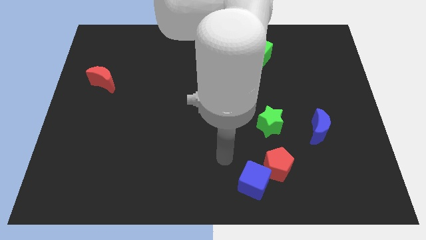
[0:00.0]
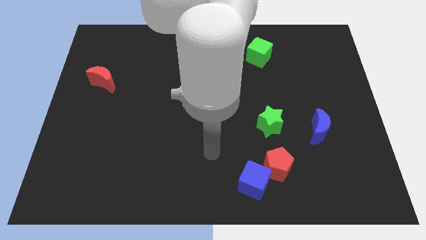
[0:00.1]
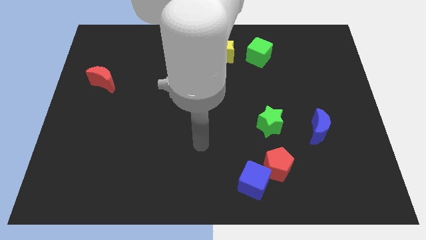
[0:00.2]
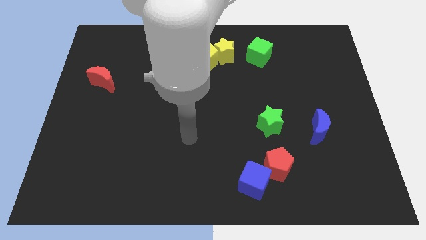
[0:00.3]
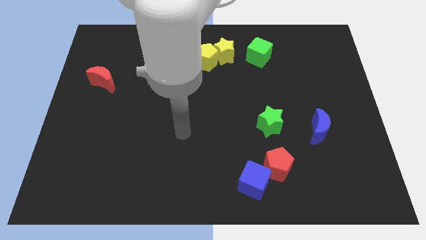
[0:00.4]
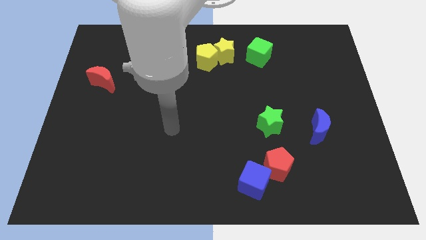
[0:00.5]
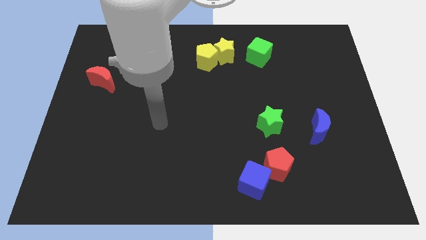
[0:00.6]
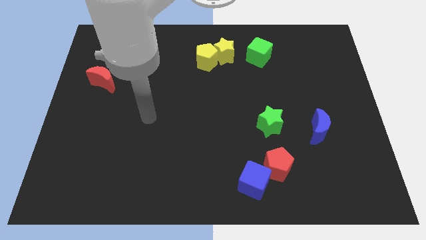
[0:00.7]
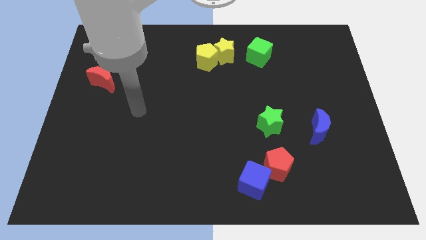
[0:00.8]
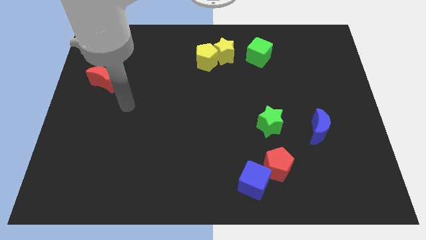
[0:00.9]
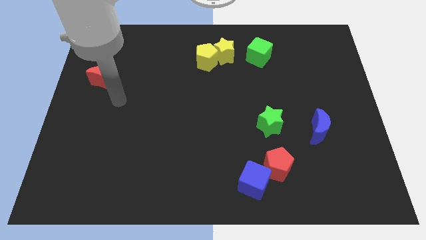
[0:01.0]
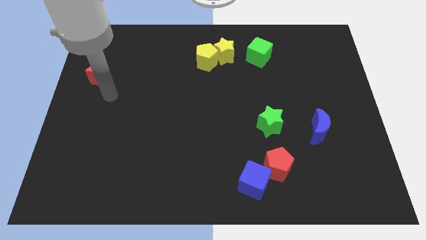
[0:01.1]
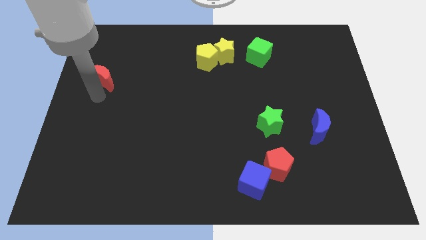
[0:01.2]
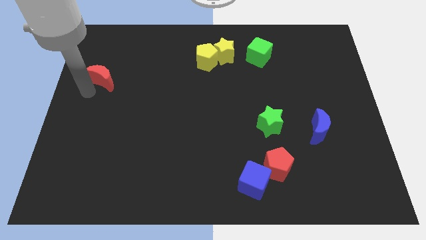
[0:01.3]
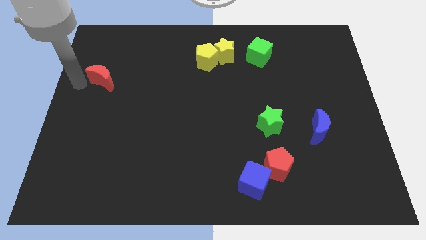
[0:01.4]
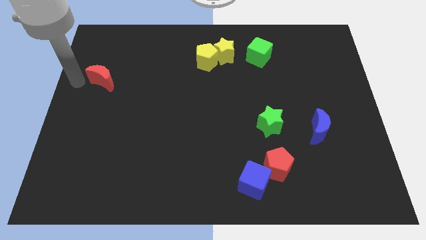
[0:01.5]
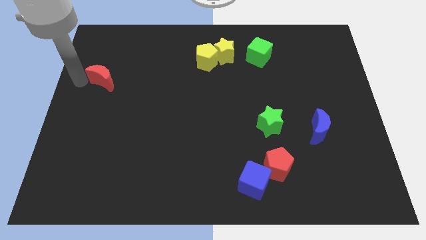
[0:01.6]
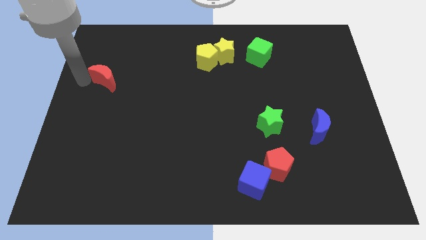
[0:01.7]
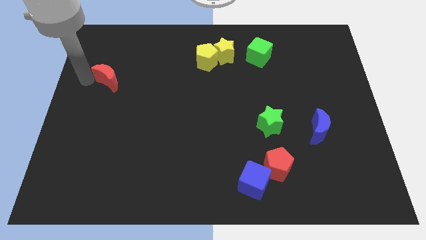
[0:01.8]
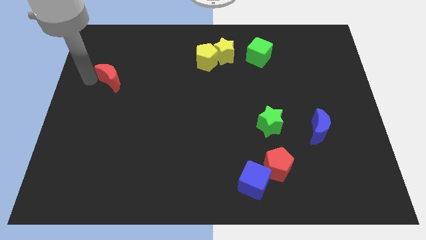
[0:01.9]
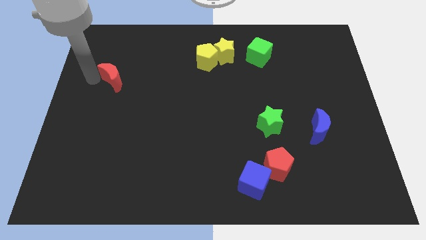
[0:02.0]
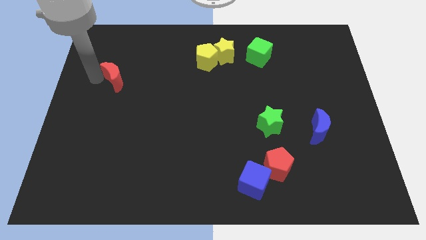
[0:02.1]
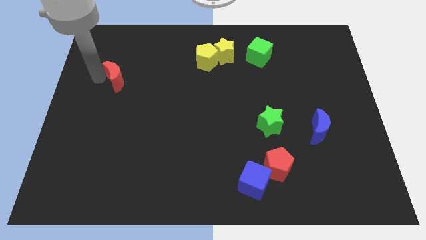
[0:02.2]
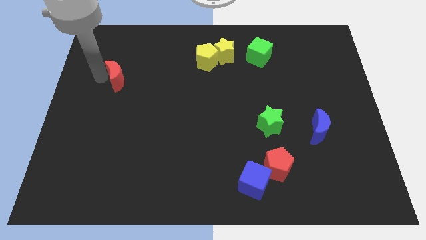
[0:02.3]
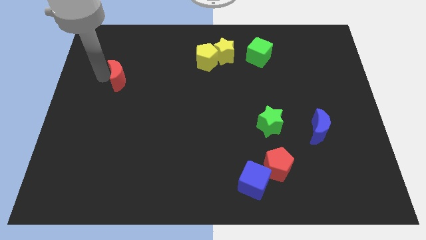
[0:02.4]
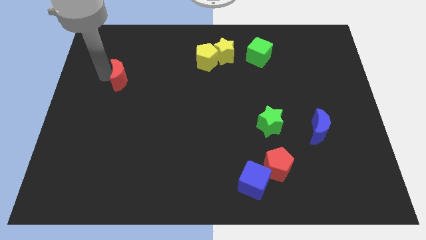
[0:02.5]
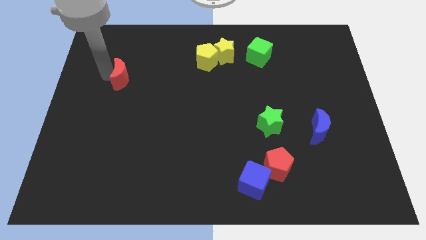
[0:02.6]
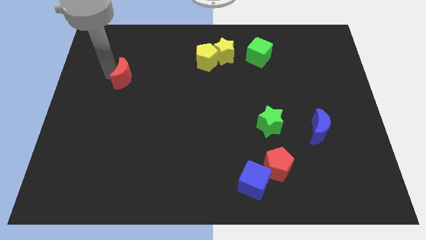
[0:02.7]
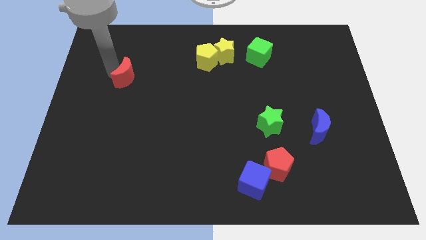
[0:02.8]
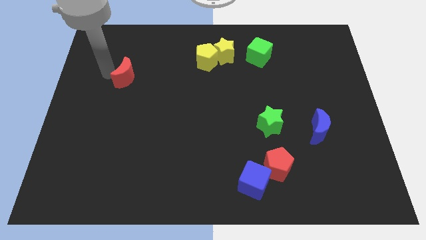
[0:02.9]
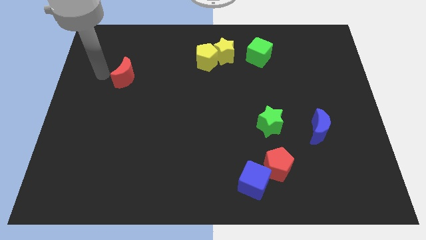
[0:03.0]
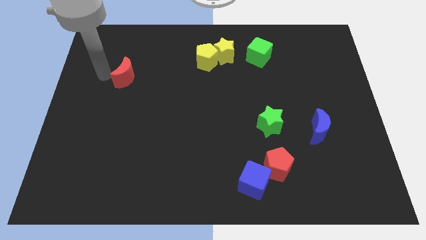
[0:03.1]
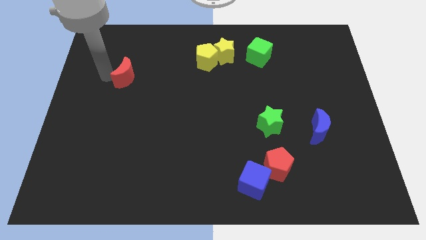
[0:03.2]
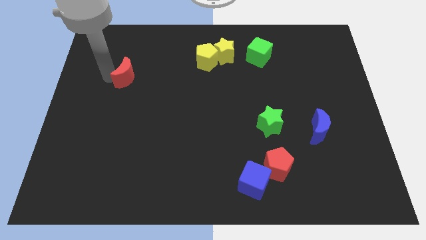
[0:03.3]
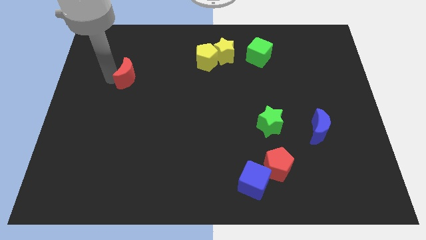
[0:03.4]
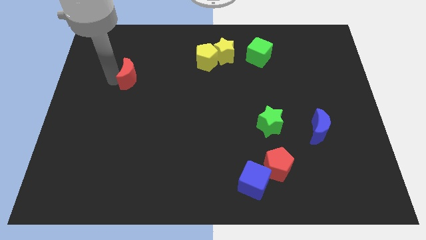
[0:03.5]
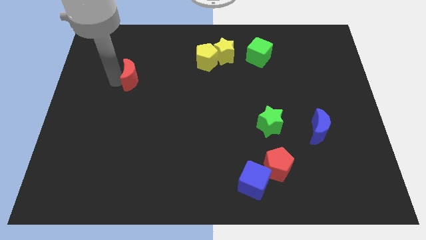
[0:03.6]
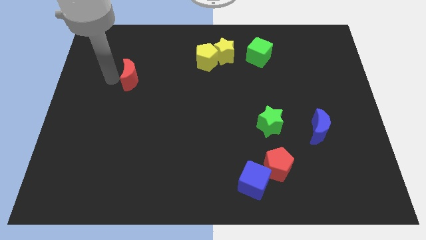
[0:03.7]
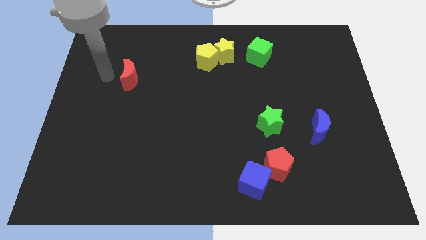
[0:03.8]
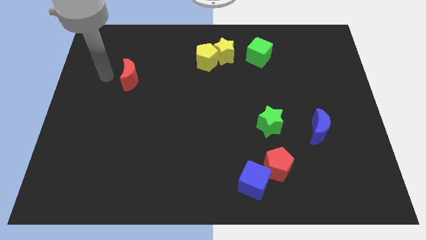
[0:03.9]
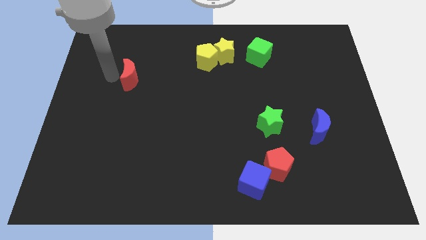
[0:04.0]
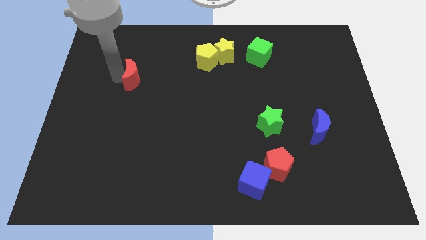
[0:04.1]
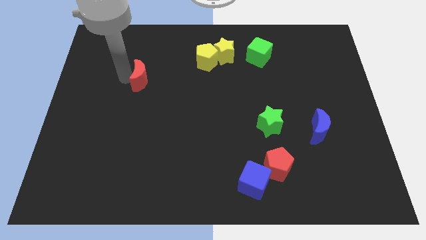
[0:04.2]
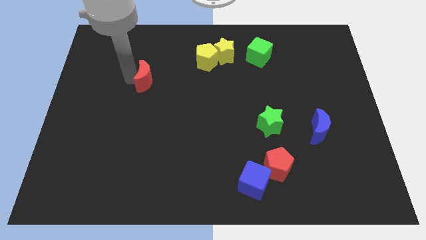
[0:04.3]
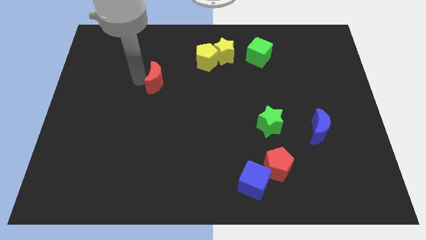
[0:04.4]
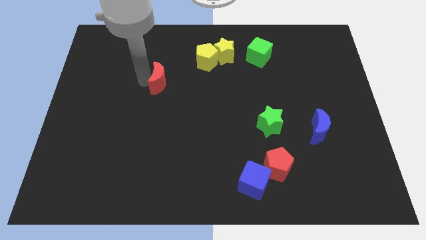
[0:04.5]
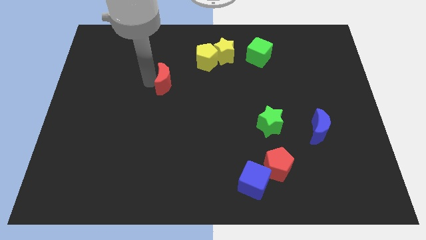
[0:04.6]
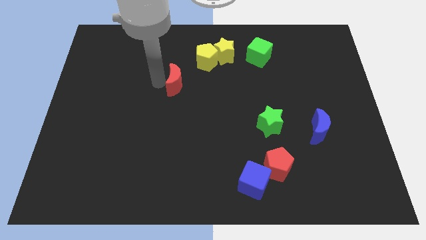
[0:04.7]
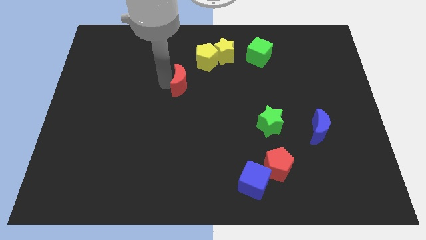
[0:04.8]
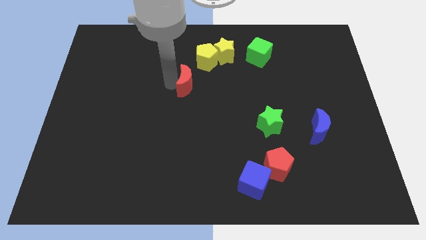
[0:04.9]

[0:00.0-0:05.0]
move the red moon right

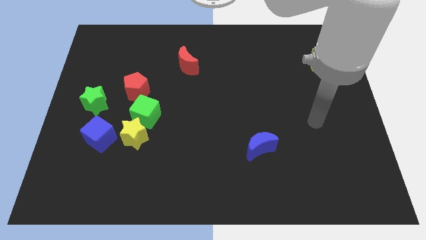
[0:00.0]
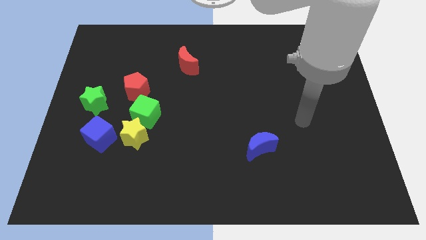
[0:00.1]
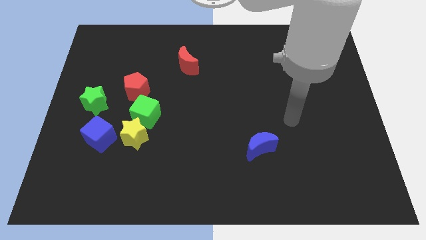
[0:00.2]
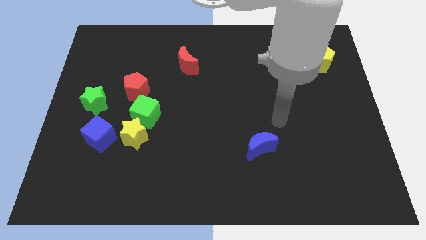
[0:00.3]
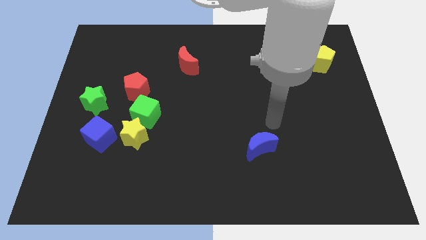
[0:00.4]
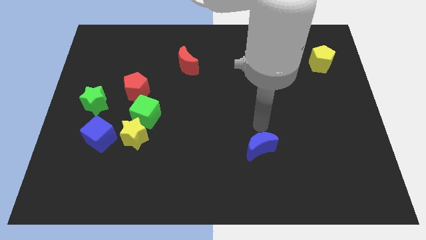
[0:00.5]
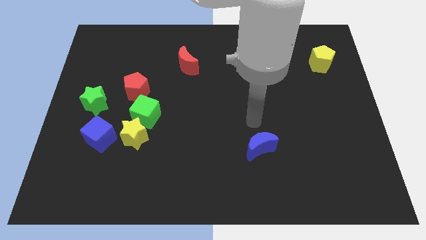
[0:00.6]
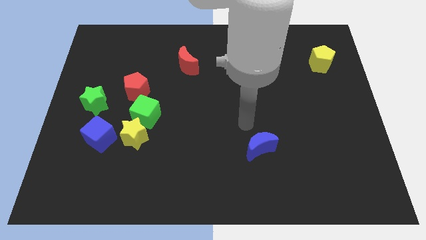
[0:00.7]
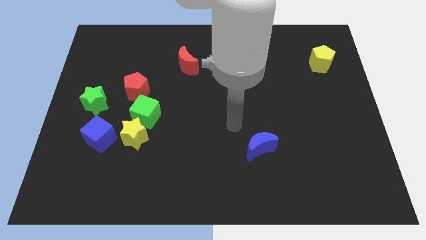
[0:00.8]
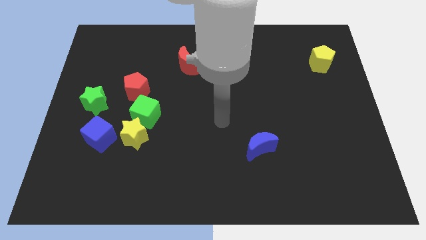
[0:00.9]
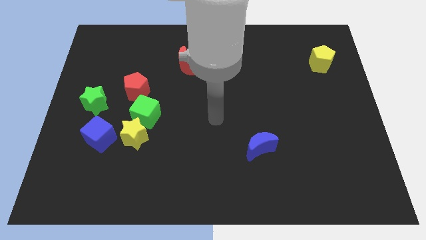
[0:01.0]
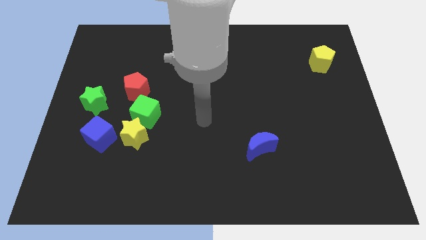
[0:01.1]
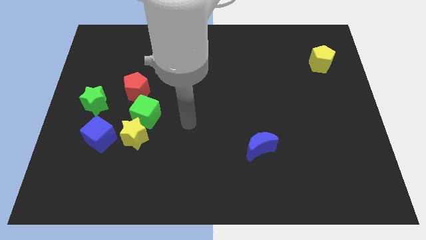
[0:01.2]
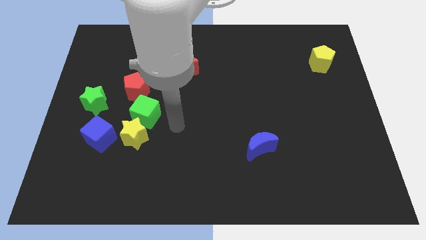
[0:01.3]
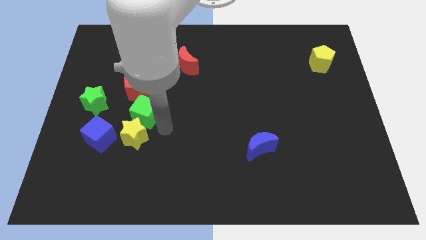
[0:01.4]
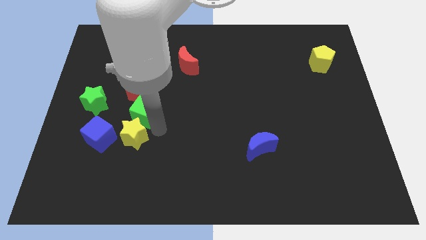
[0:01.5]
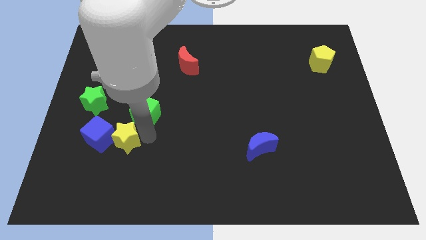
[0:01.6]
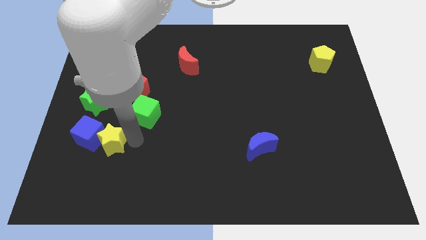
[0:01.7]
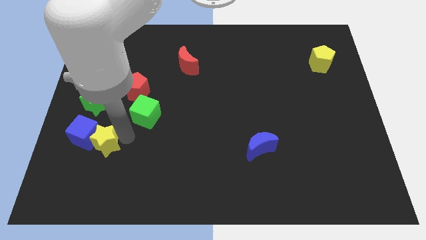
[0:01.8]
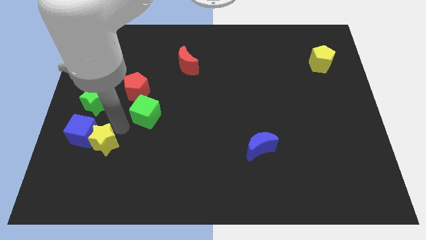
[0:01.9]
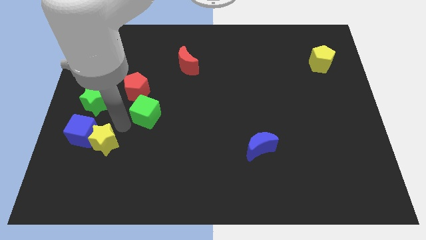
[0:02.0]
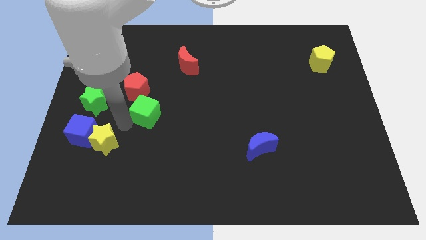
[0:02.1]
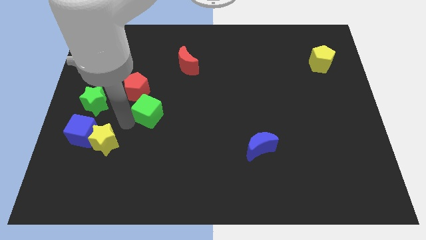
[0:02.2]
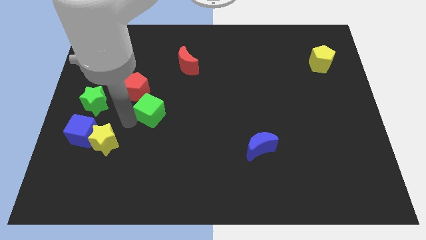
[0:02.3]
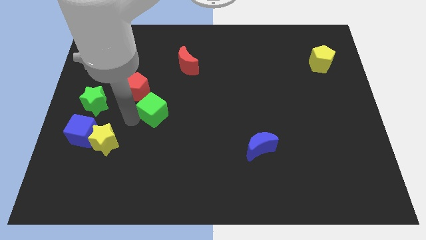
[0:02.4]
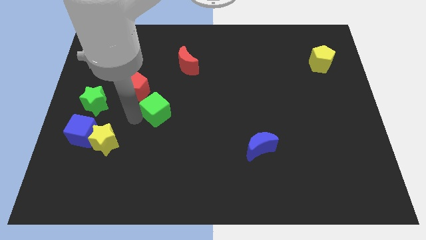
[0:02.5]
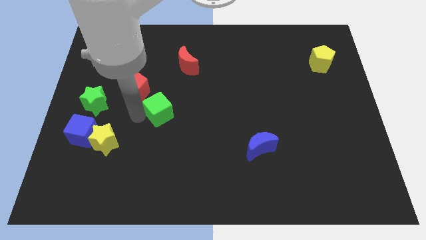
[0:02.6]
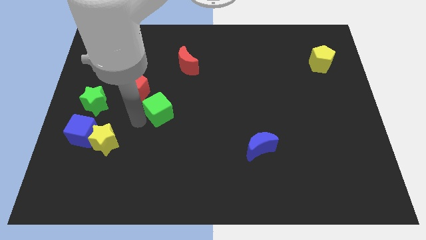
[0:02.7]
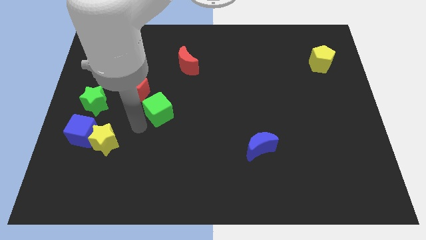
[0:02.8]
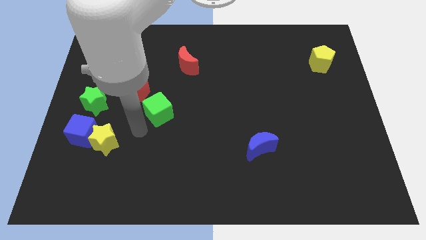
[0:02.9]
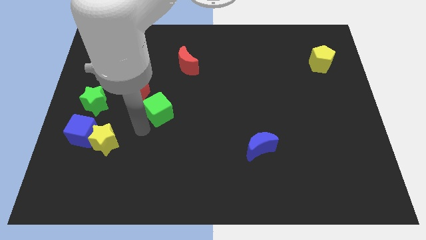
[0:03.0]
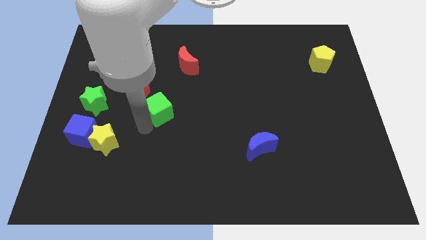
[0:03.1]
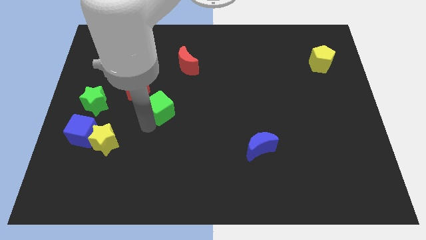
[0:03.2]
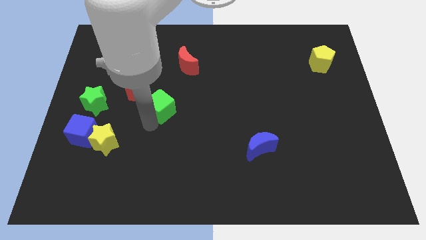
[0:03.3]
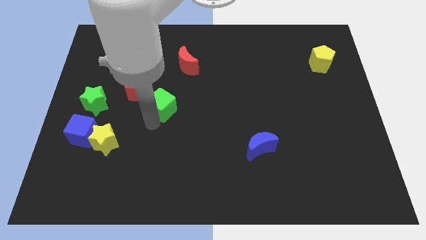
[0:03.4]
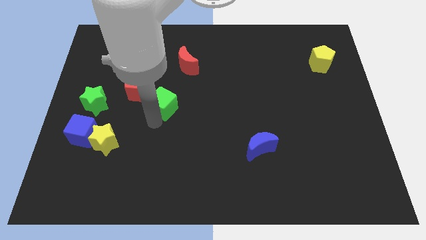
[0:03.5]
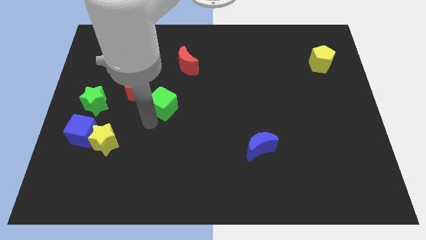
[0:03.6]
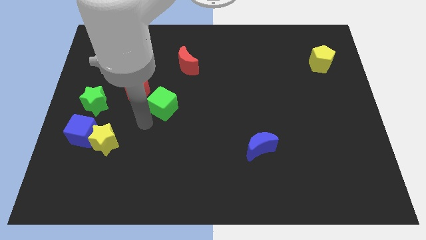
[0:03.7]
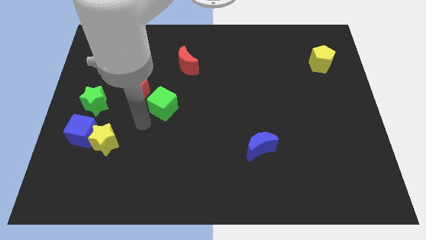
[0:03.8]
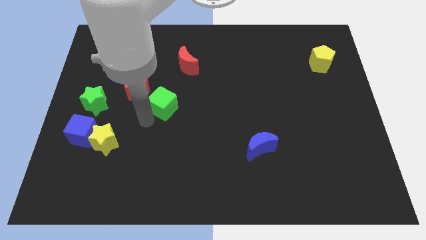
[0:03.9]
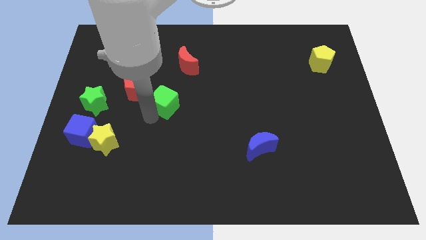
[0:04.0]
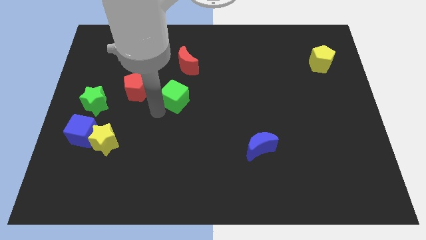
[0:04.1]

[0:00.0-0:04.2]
move the green cube upwards and to the right a bit
